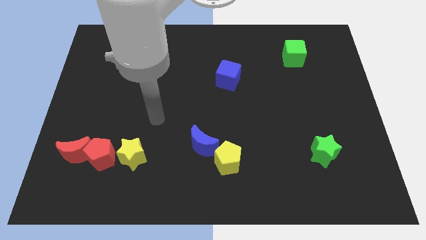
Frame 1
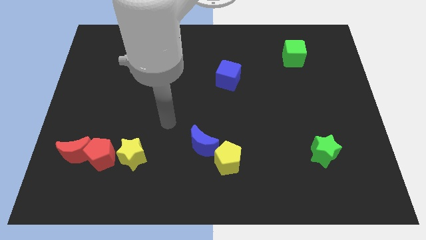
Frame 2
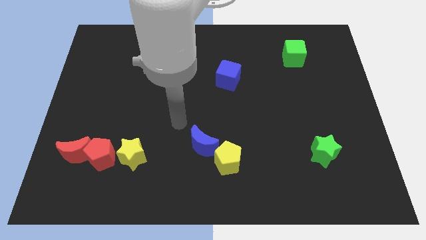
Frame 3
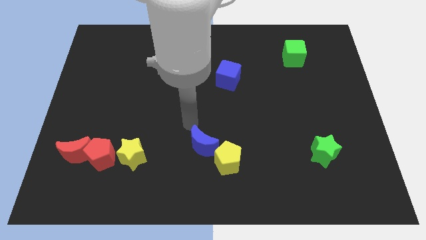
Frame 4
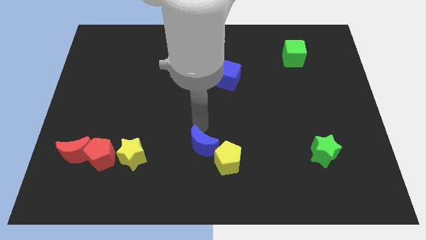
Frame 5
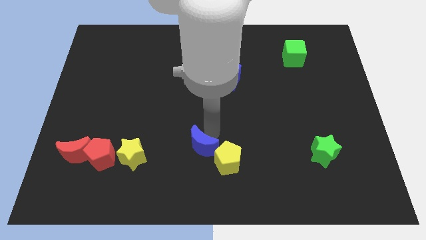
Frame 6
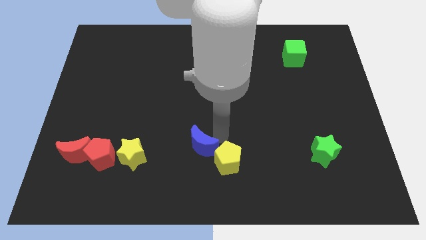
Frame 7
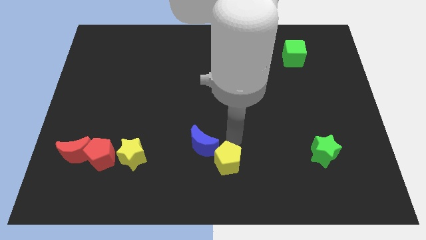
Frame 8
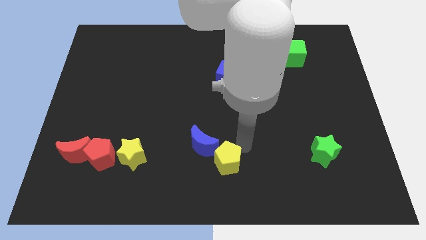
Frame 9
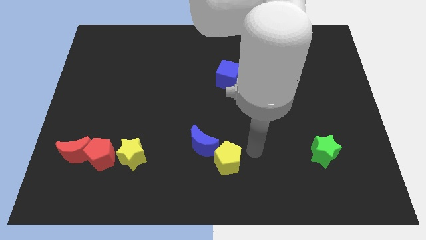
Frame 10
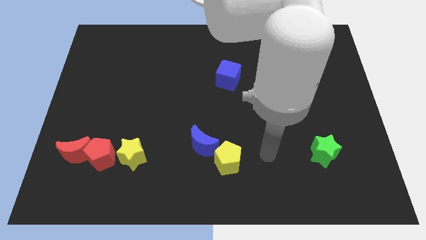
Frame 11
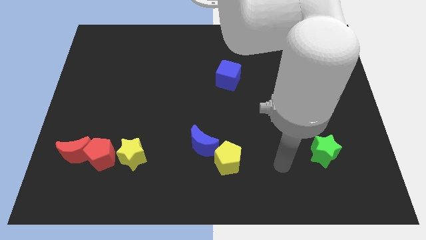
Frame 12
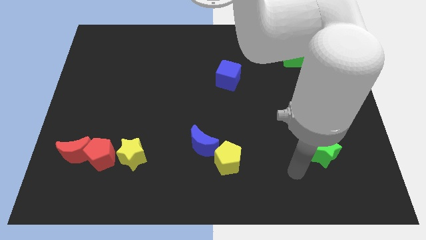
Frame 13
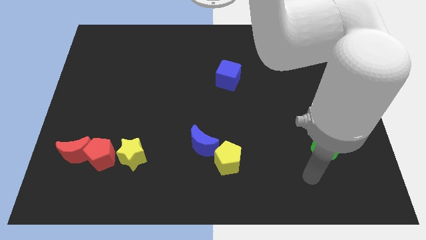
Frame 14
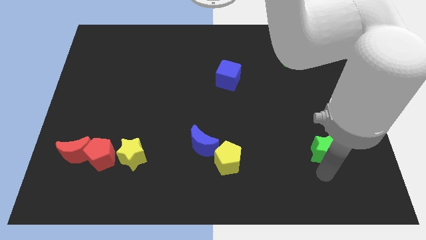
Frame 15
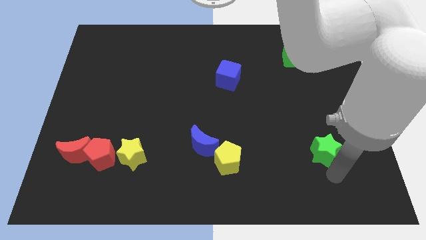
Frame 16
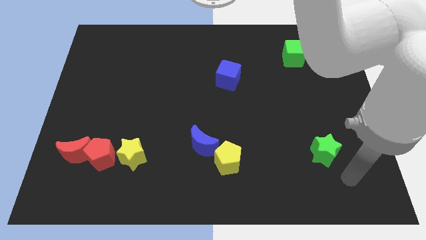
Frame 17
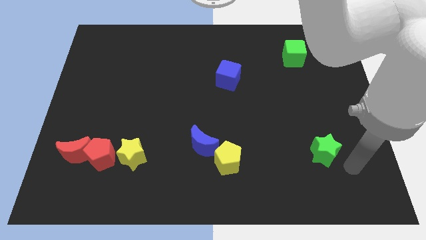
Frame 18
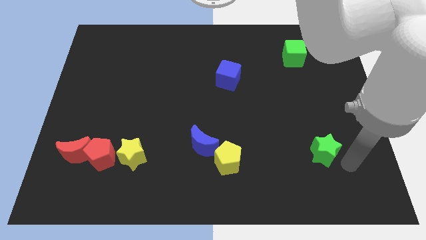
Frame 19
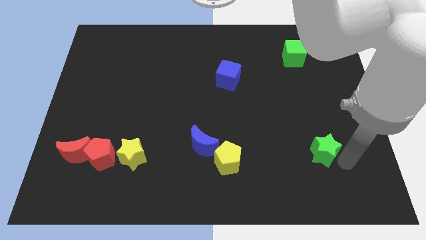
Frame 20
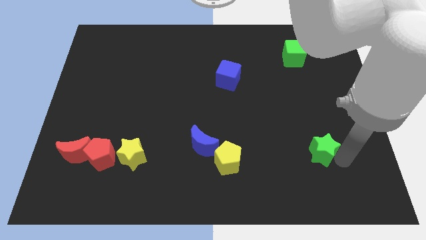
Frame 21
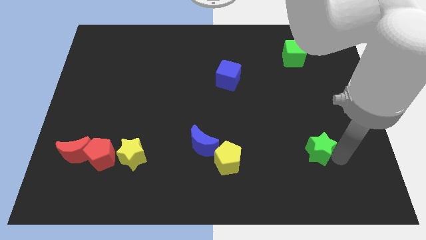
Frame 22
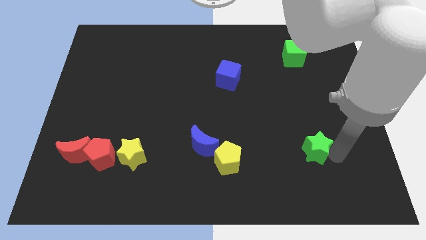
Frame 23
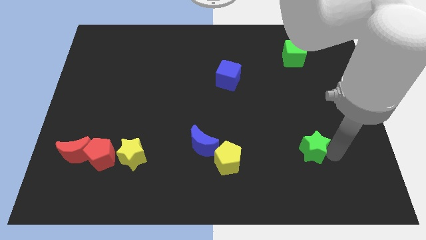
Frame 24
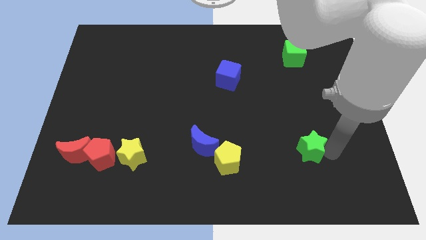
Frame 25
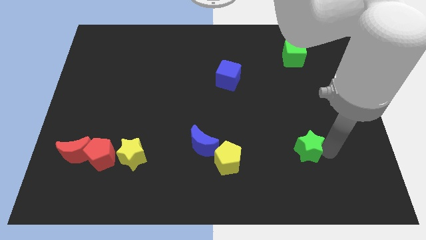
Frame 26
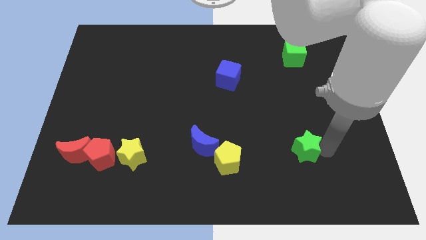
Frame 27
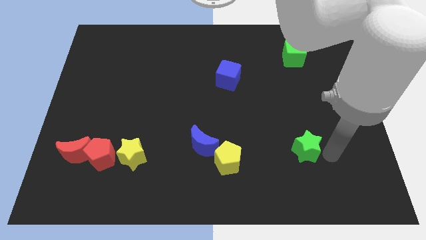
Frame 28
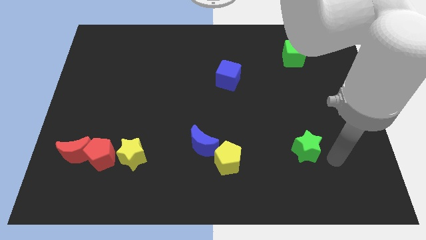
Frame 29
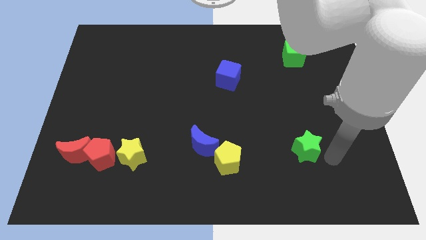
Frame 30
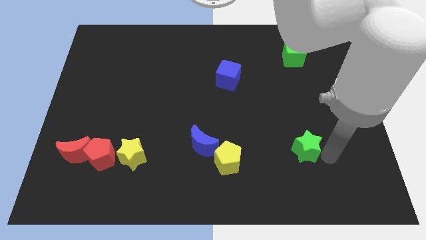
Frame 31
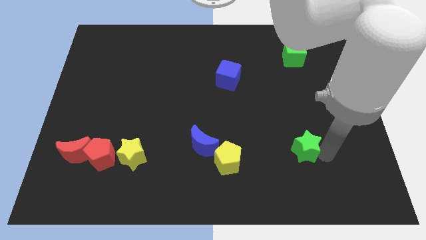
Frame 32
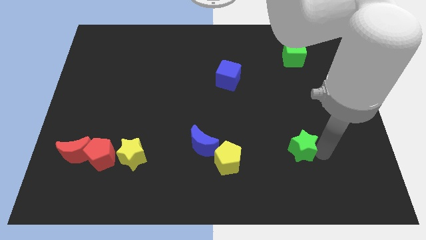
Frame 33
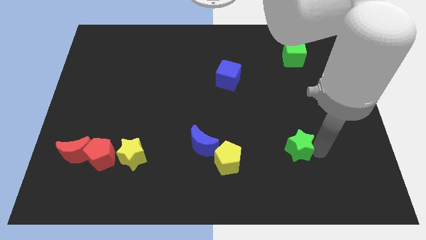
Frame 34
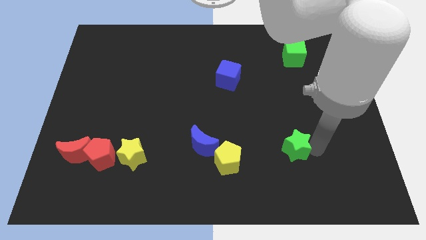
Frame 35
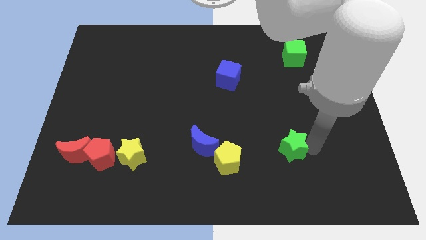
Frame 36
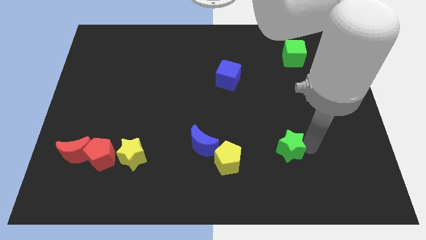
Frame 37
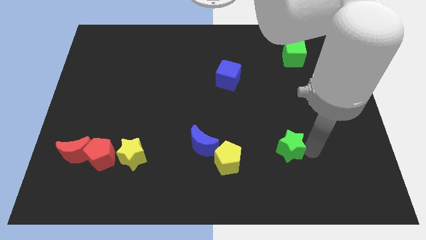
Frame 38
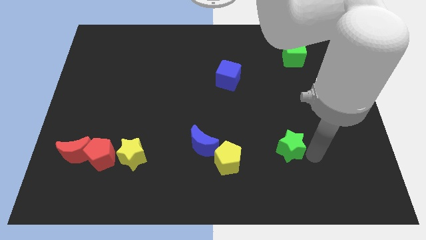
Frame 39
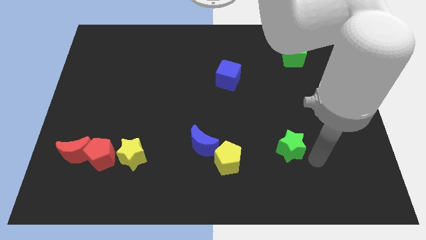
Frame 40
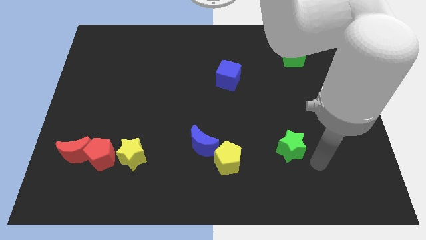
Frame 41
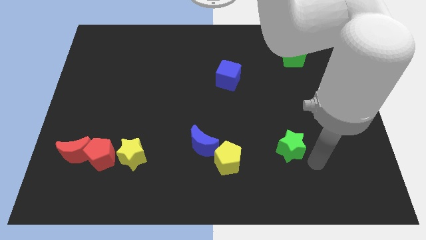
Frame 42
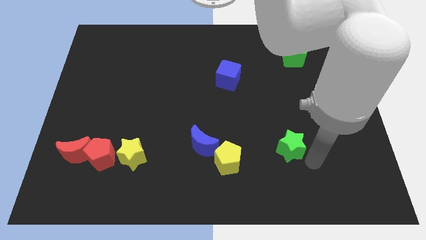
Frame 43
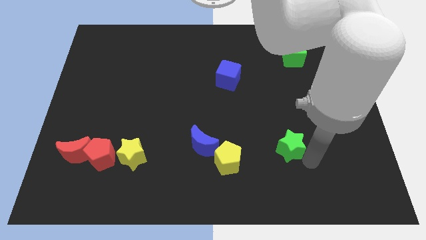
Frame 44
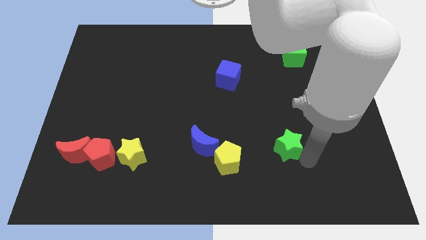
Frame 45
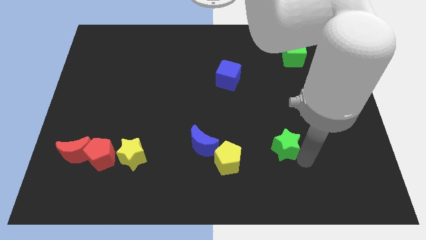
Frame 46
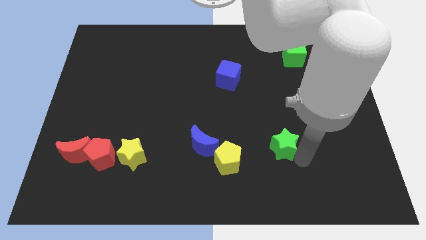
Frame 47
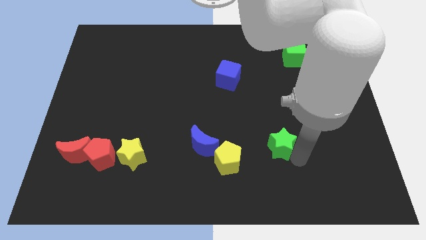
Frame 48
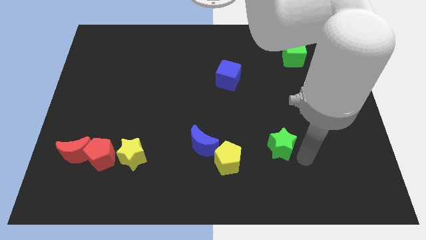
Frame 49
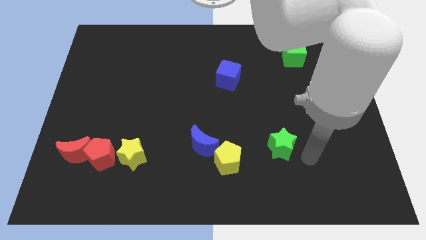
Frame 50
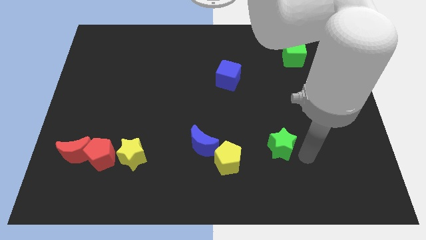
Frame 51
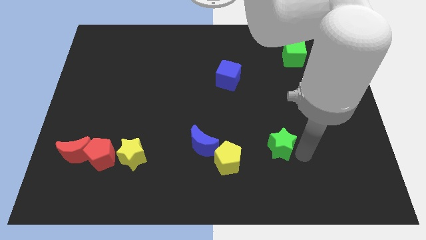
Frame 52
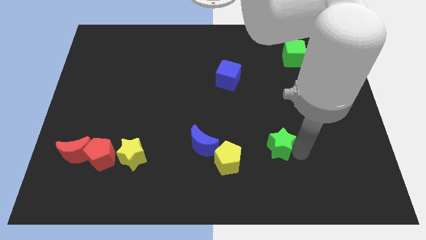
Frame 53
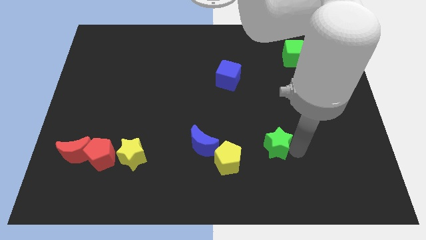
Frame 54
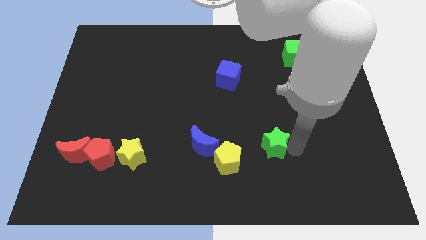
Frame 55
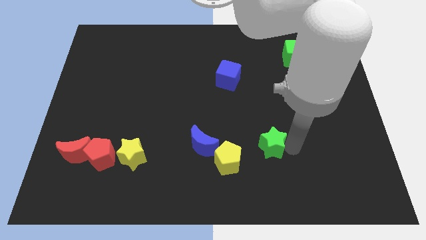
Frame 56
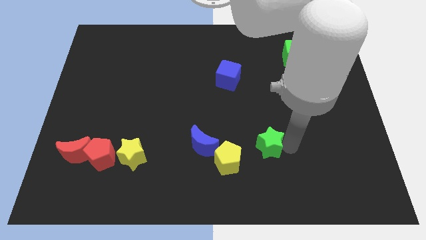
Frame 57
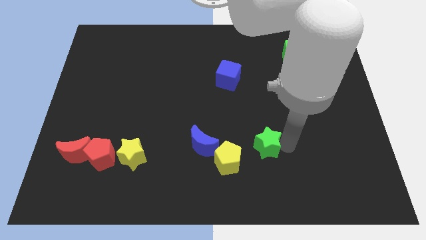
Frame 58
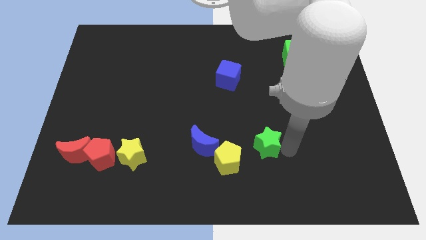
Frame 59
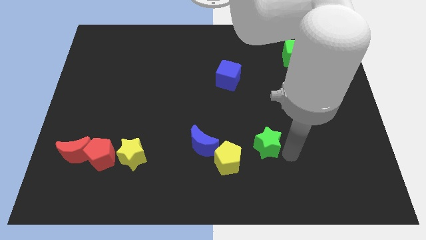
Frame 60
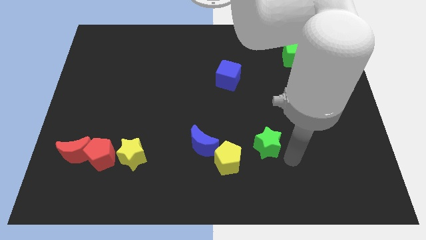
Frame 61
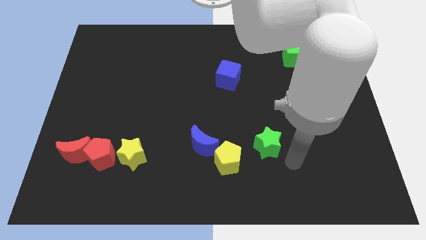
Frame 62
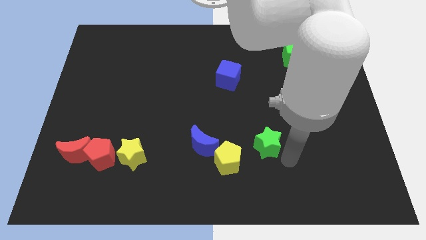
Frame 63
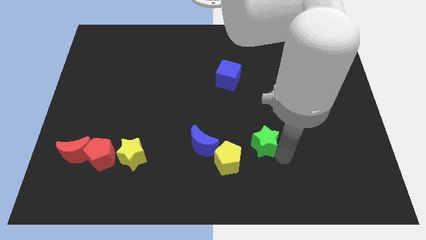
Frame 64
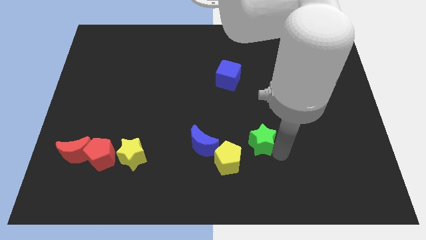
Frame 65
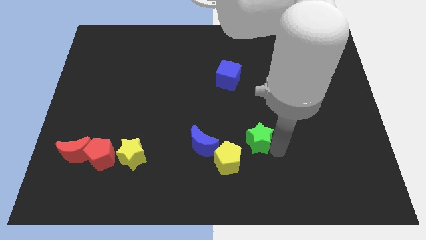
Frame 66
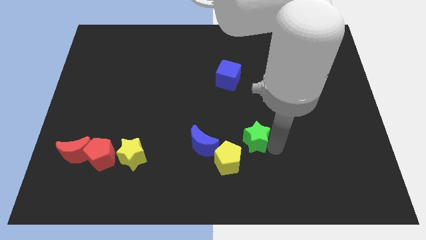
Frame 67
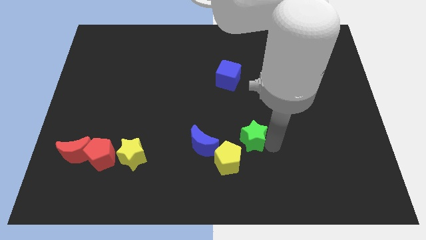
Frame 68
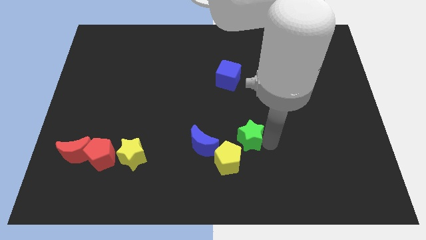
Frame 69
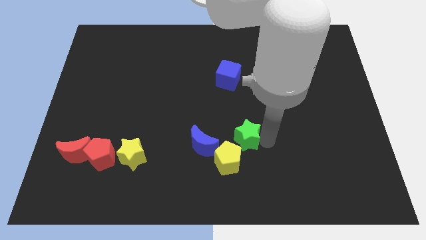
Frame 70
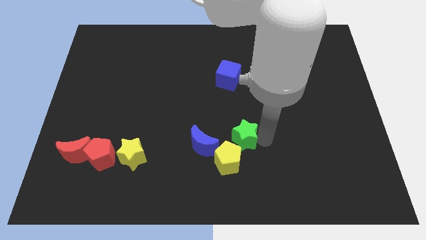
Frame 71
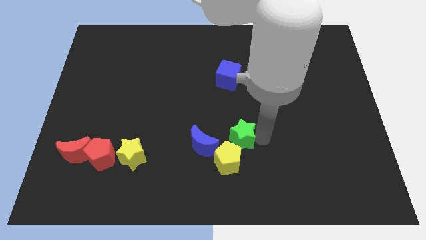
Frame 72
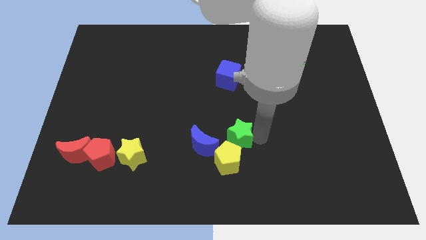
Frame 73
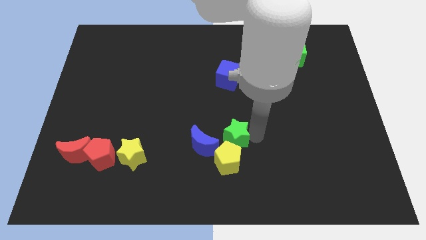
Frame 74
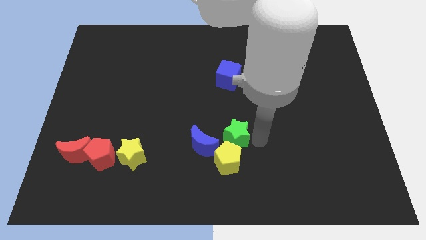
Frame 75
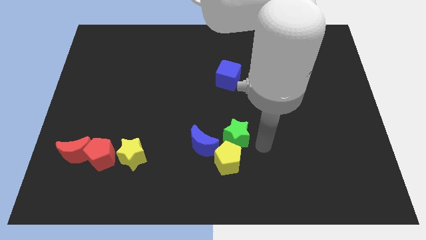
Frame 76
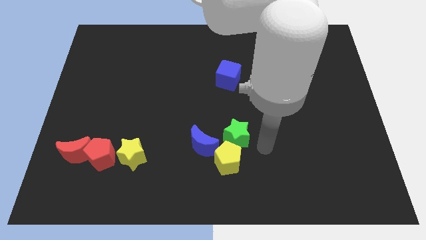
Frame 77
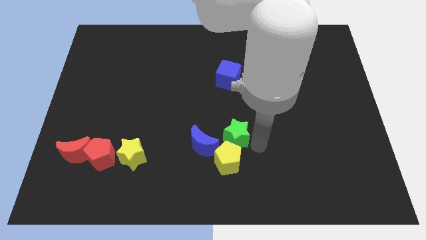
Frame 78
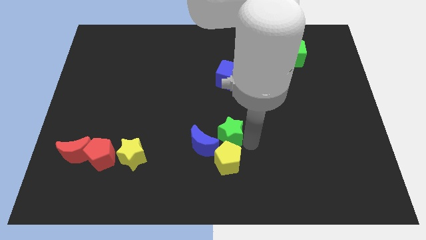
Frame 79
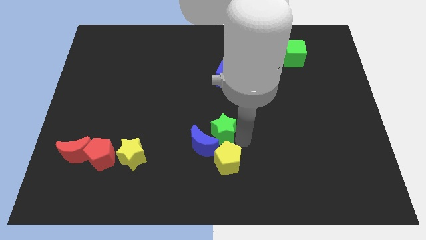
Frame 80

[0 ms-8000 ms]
slide the green star left

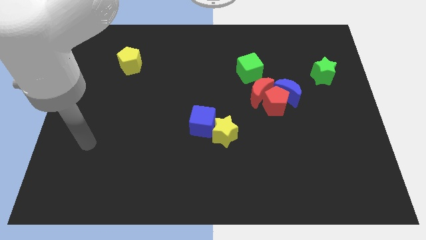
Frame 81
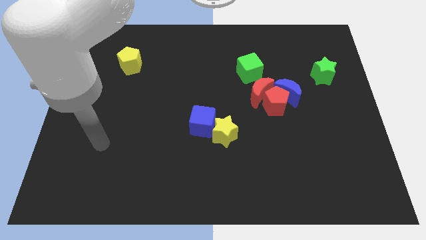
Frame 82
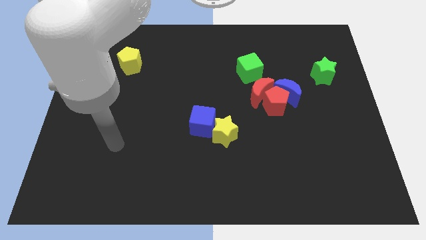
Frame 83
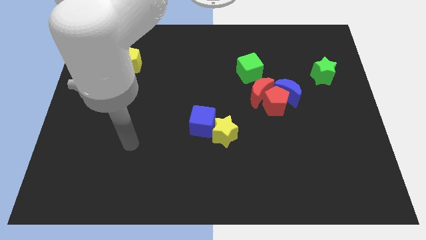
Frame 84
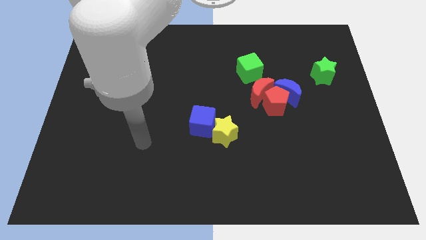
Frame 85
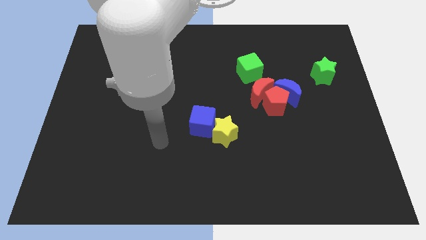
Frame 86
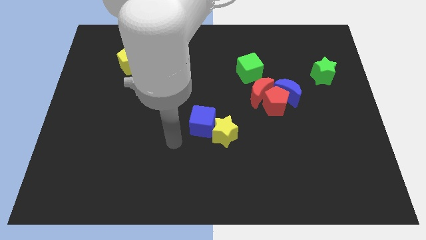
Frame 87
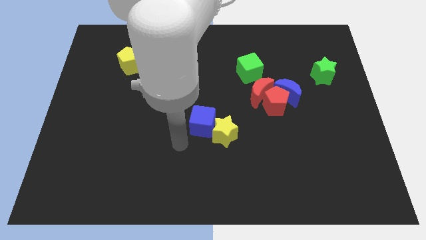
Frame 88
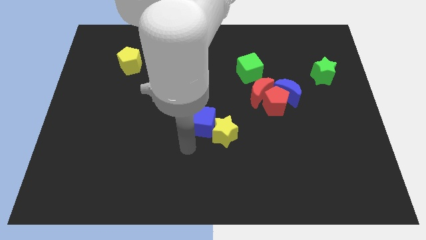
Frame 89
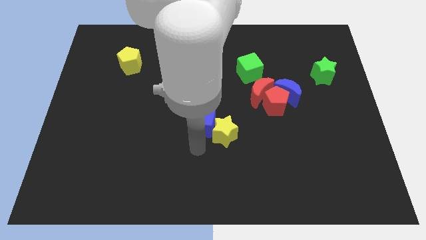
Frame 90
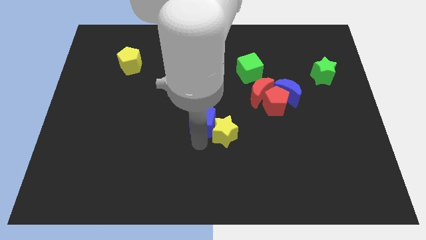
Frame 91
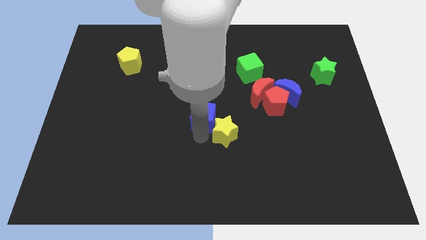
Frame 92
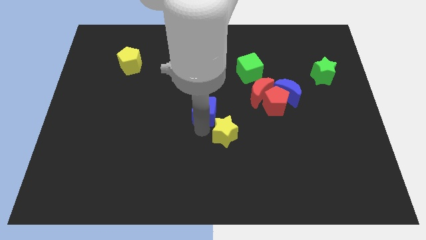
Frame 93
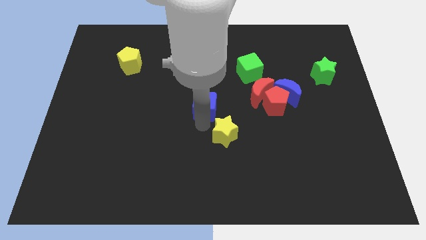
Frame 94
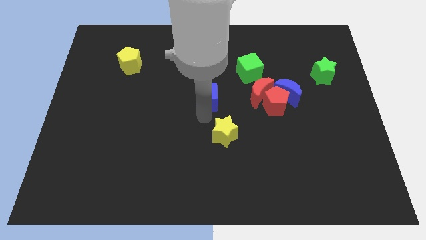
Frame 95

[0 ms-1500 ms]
move the blue cube up a bit
